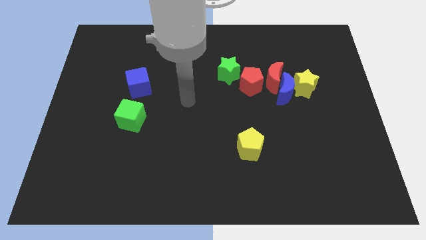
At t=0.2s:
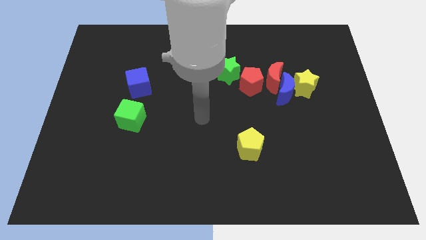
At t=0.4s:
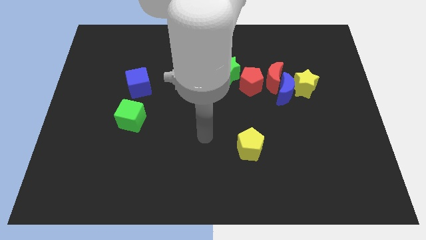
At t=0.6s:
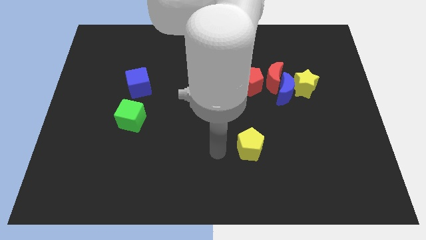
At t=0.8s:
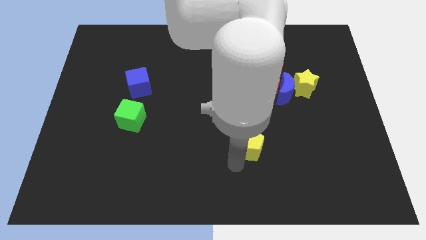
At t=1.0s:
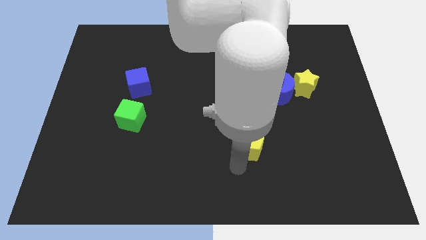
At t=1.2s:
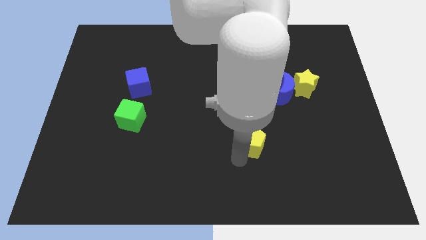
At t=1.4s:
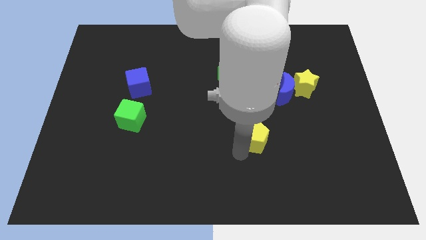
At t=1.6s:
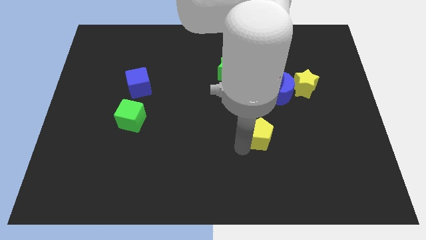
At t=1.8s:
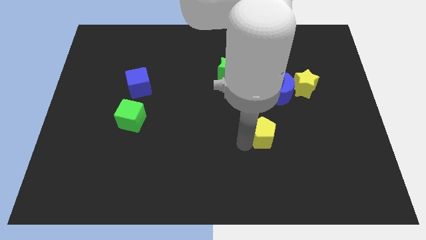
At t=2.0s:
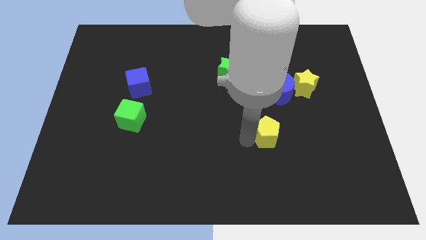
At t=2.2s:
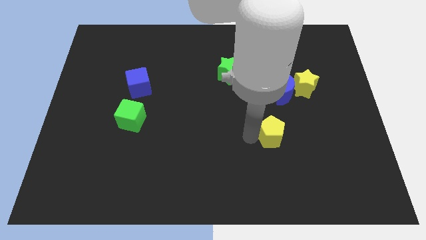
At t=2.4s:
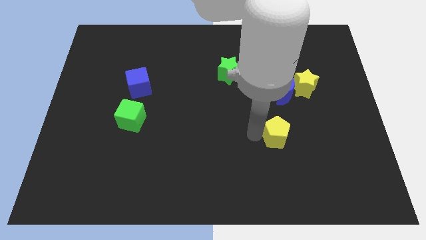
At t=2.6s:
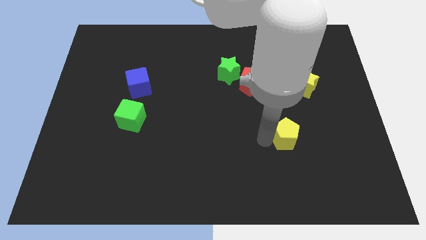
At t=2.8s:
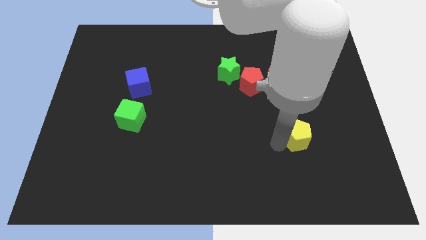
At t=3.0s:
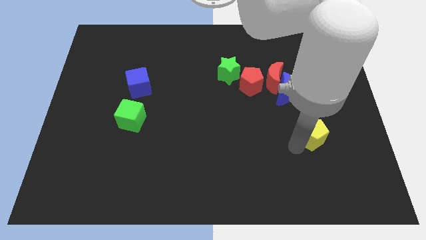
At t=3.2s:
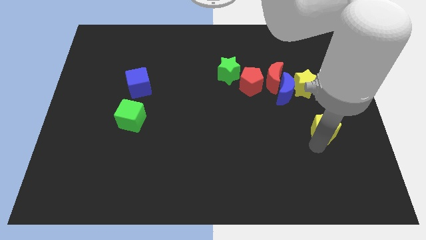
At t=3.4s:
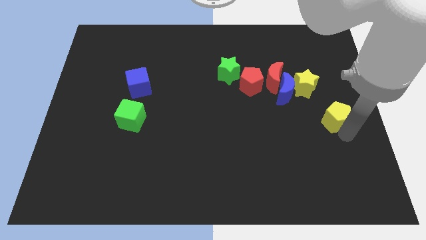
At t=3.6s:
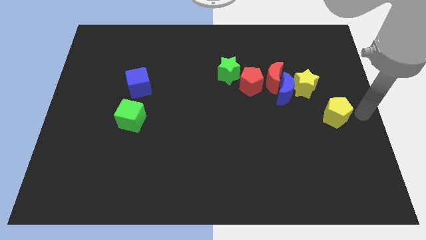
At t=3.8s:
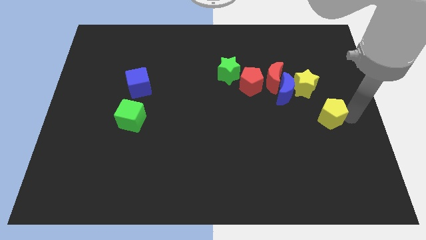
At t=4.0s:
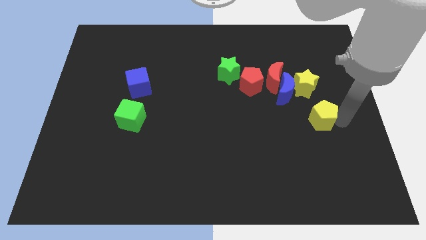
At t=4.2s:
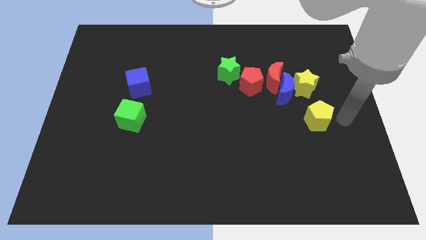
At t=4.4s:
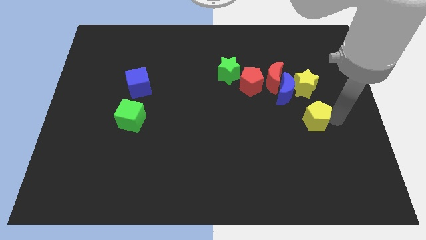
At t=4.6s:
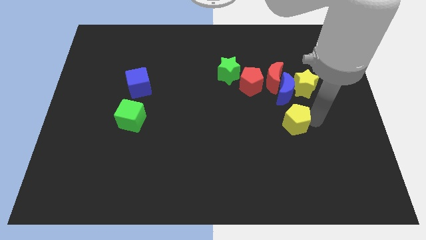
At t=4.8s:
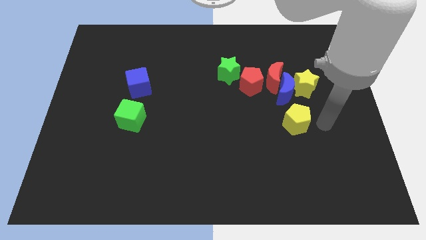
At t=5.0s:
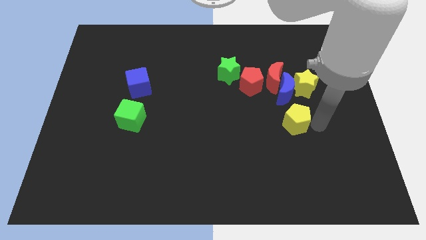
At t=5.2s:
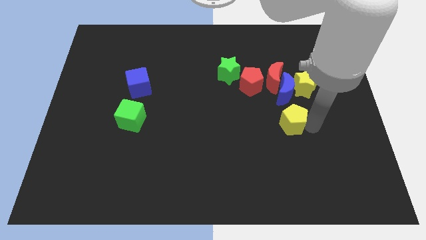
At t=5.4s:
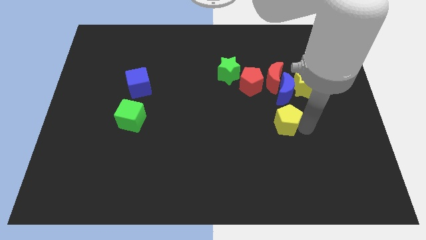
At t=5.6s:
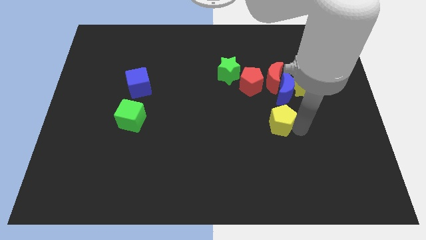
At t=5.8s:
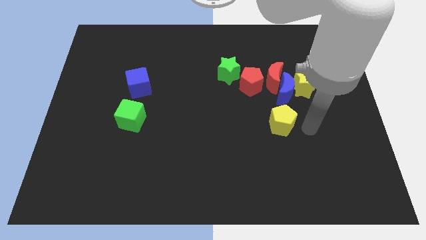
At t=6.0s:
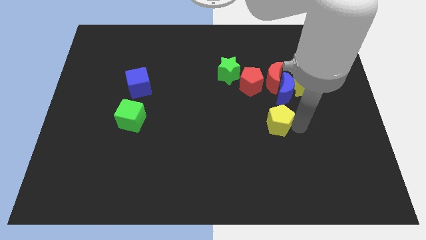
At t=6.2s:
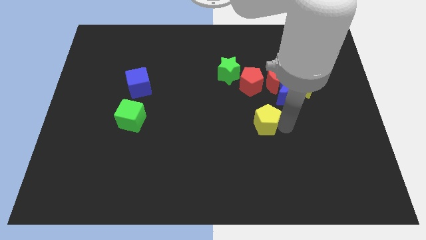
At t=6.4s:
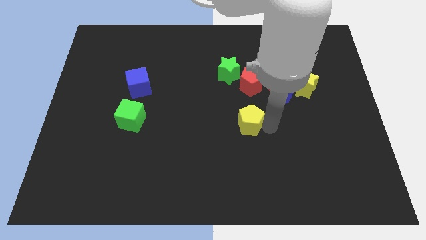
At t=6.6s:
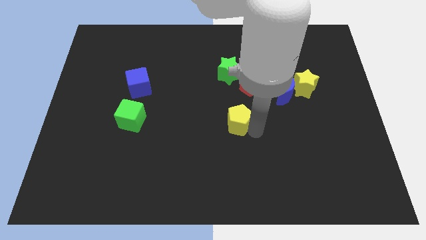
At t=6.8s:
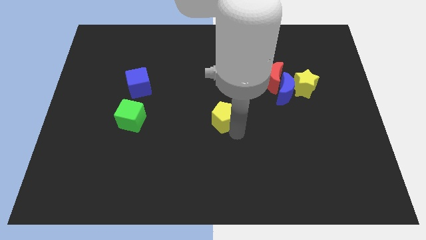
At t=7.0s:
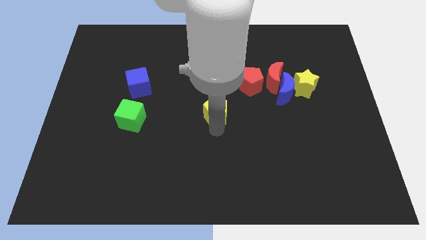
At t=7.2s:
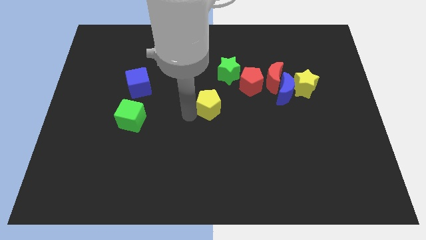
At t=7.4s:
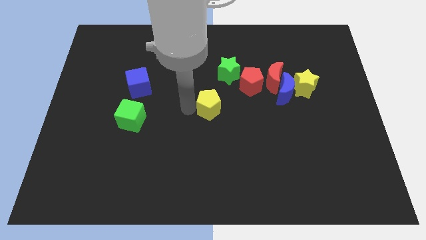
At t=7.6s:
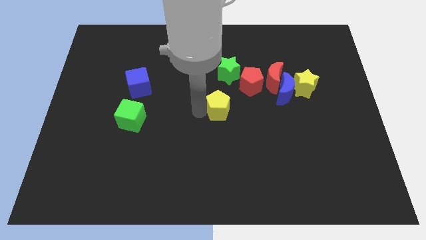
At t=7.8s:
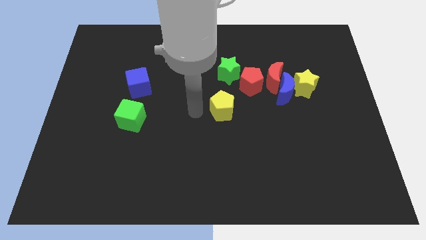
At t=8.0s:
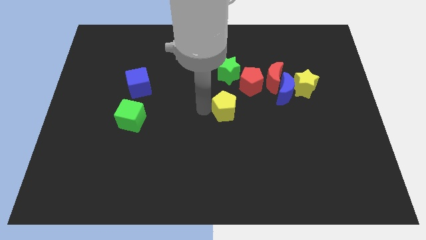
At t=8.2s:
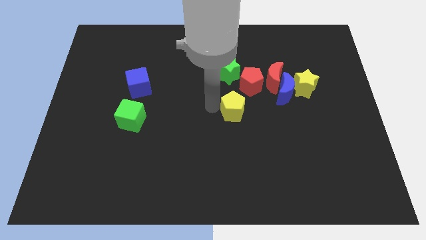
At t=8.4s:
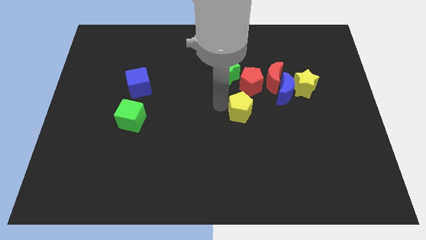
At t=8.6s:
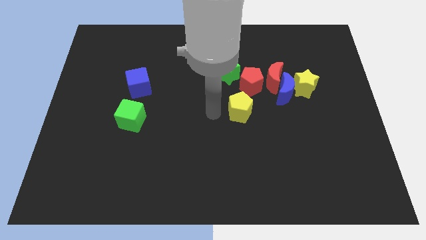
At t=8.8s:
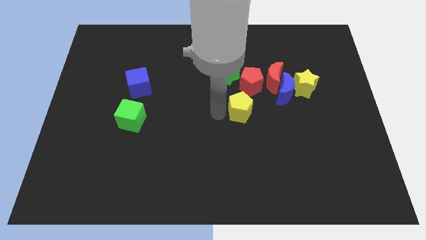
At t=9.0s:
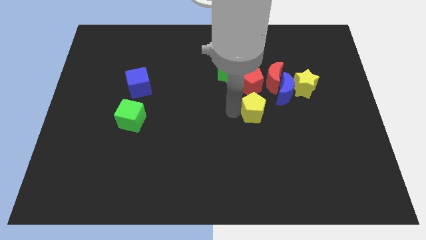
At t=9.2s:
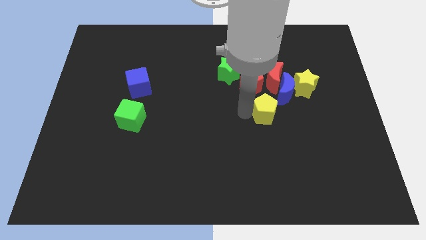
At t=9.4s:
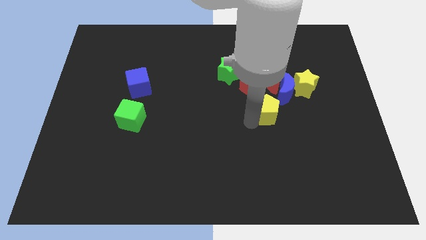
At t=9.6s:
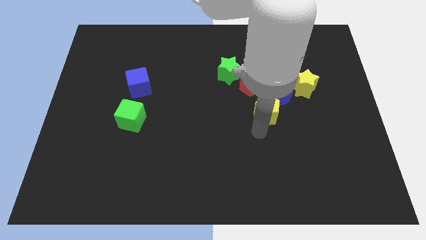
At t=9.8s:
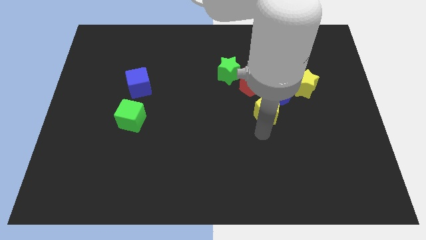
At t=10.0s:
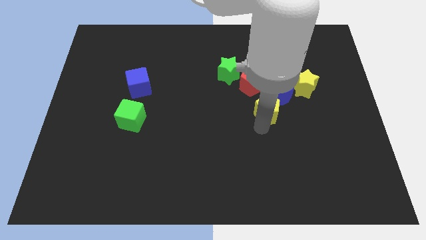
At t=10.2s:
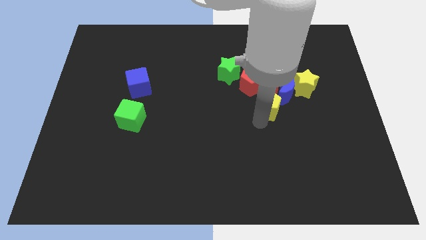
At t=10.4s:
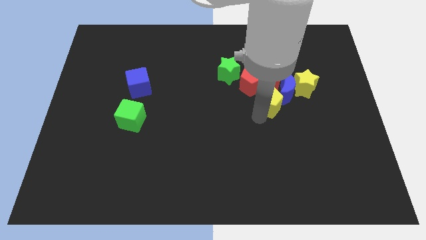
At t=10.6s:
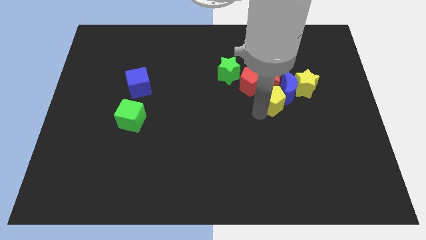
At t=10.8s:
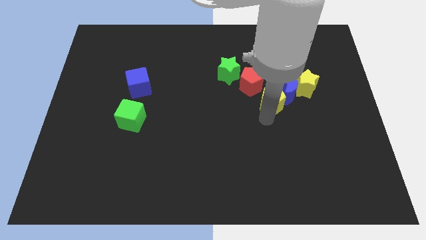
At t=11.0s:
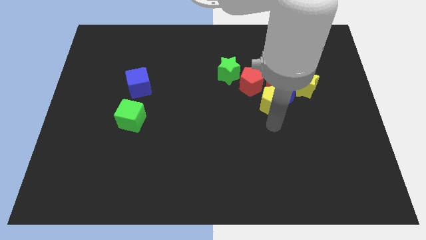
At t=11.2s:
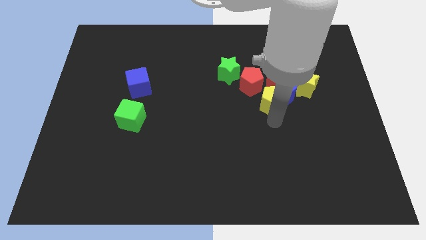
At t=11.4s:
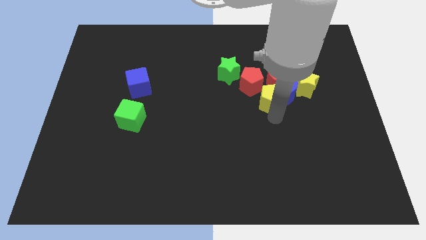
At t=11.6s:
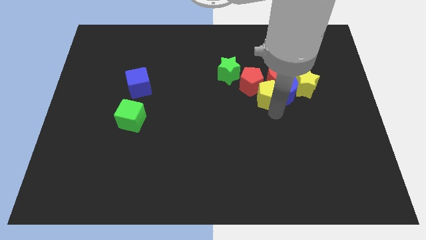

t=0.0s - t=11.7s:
slide the yellow pentagon to the red moon

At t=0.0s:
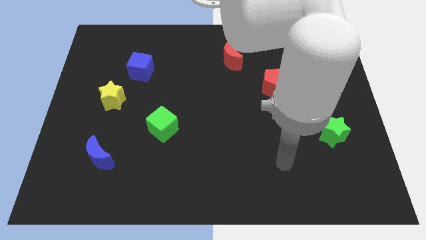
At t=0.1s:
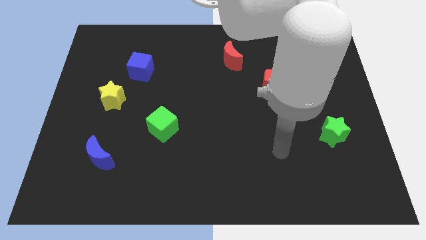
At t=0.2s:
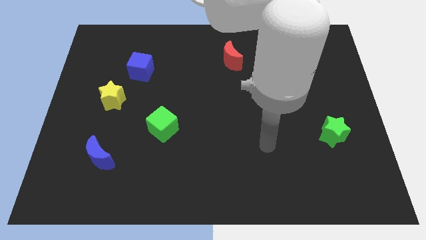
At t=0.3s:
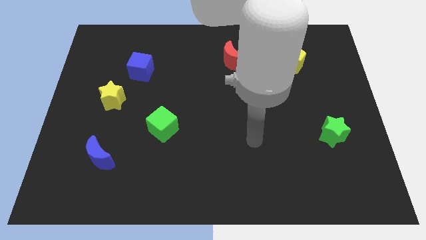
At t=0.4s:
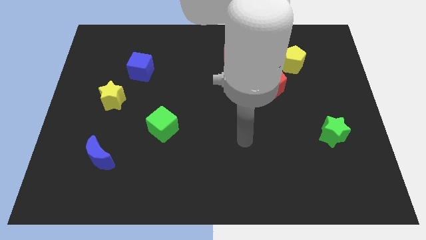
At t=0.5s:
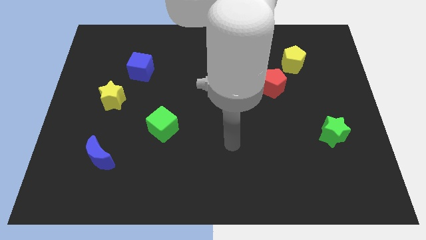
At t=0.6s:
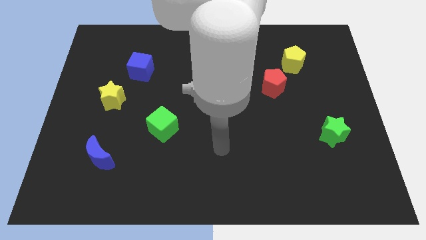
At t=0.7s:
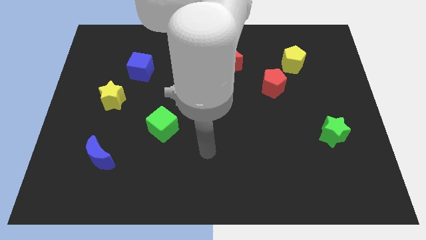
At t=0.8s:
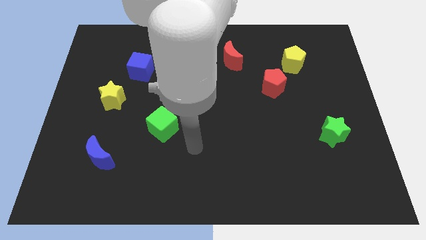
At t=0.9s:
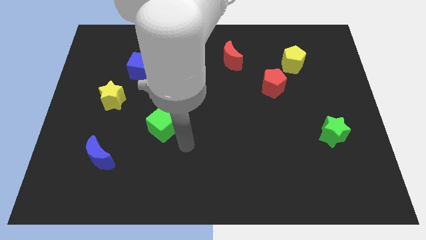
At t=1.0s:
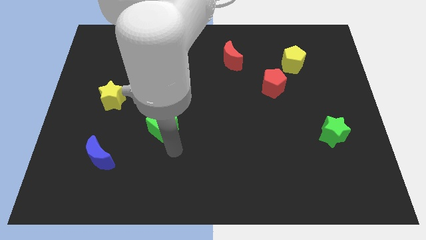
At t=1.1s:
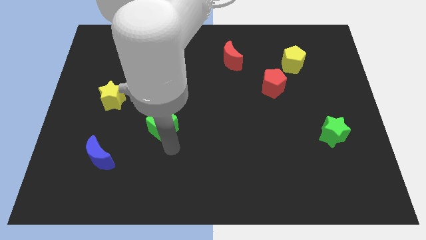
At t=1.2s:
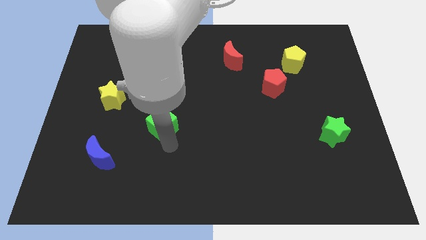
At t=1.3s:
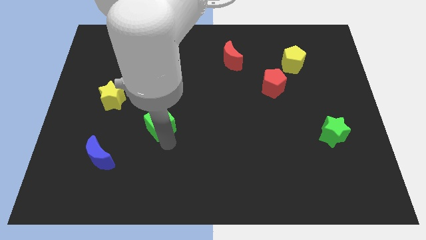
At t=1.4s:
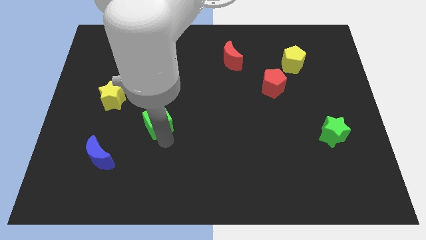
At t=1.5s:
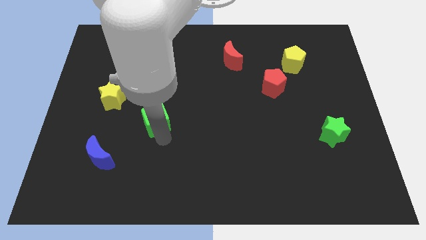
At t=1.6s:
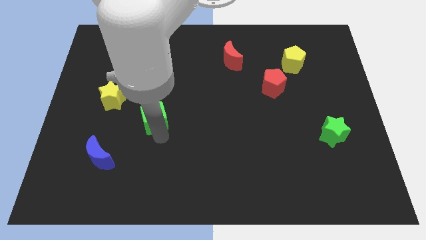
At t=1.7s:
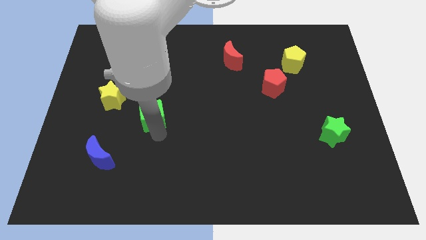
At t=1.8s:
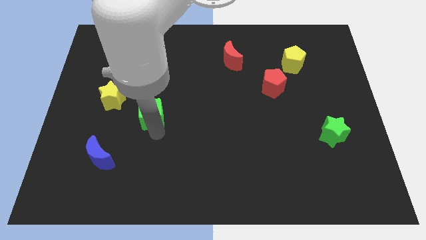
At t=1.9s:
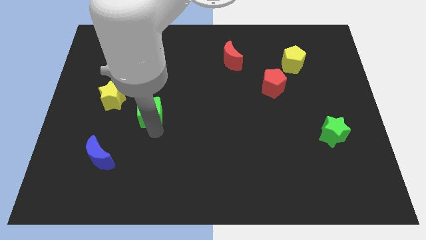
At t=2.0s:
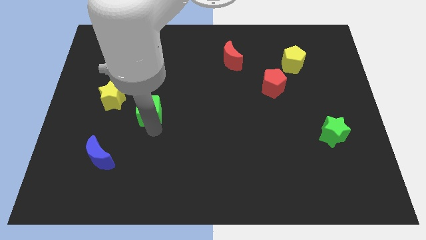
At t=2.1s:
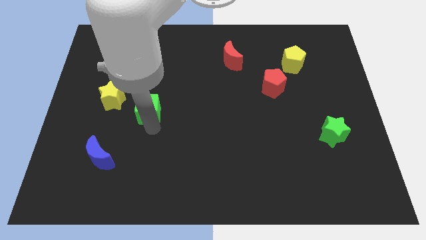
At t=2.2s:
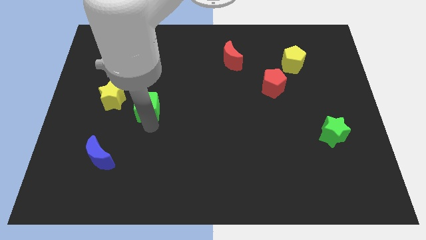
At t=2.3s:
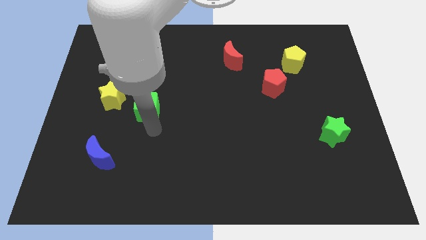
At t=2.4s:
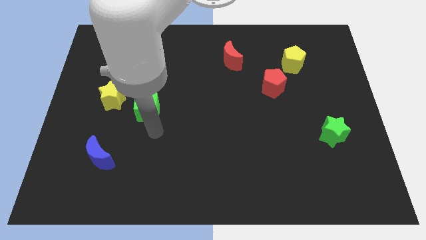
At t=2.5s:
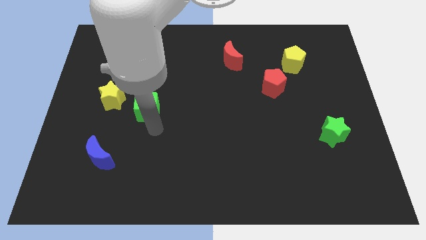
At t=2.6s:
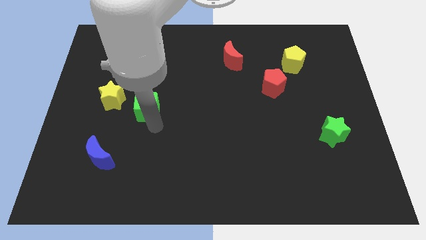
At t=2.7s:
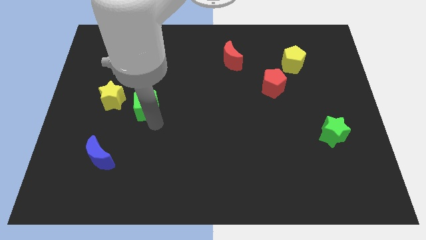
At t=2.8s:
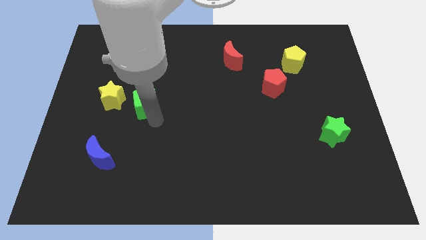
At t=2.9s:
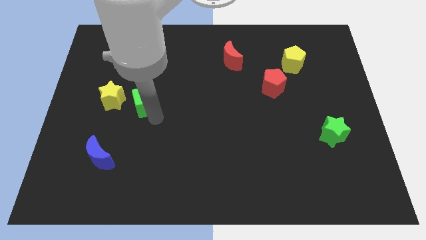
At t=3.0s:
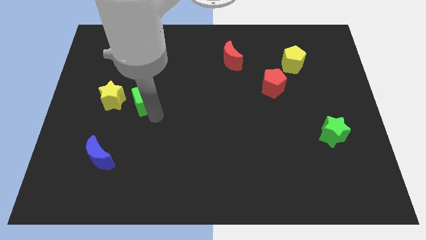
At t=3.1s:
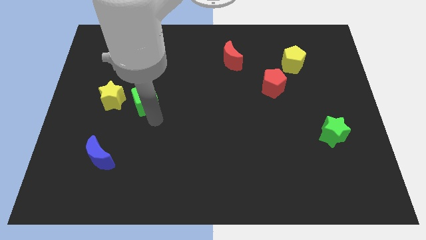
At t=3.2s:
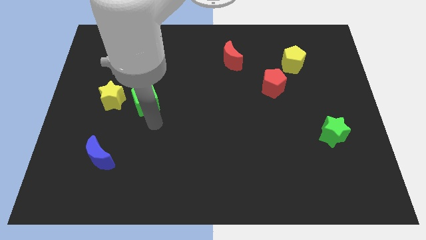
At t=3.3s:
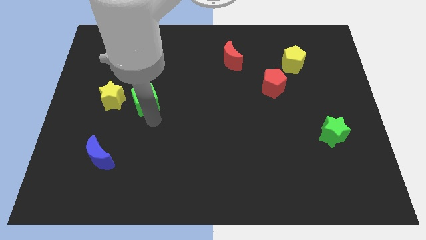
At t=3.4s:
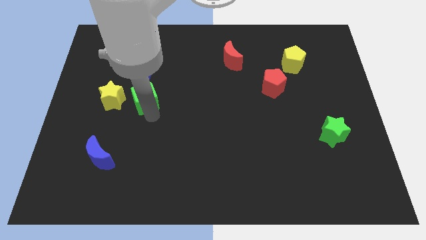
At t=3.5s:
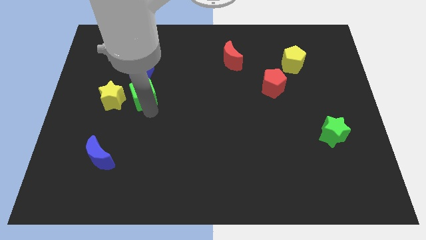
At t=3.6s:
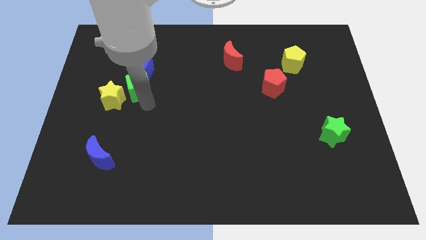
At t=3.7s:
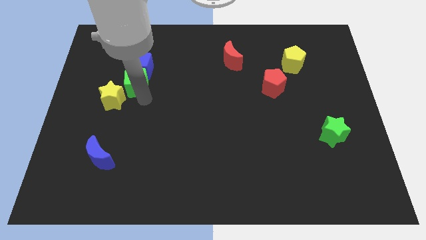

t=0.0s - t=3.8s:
move the green cube towards the blue cube
